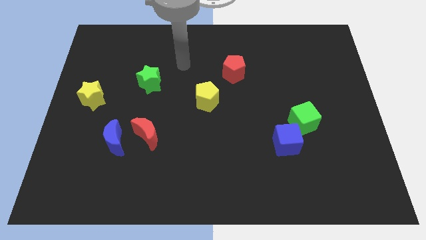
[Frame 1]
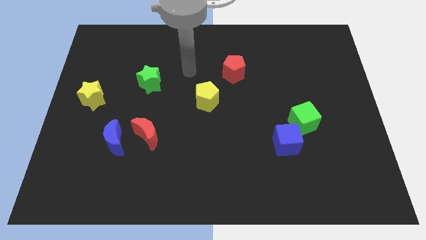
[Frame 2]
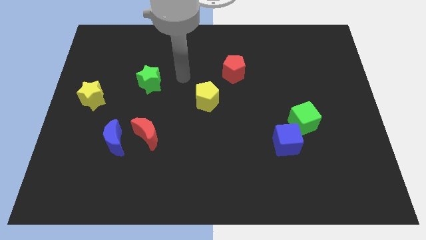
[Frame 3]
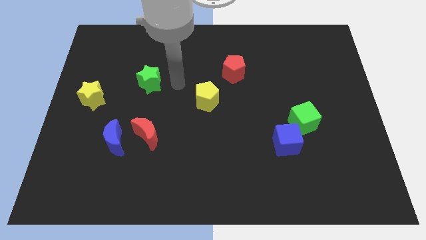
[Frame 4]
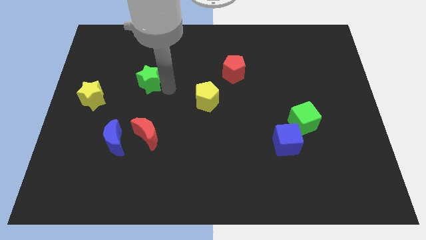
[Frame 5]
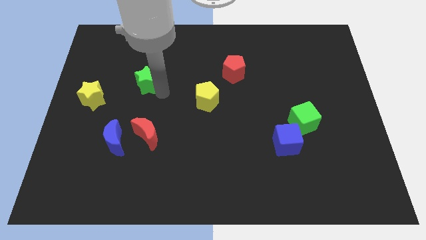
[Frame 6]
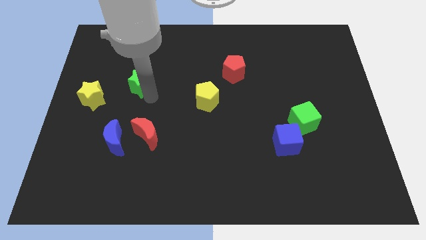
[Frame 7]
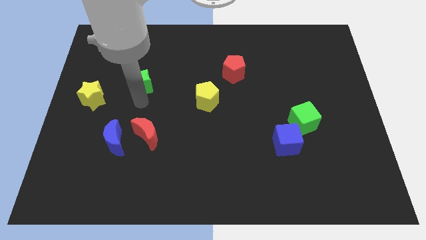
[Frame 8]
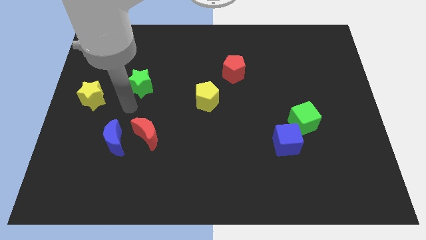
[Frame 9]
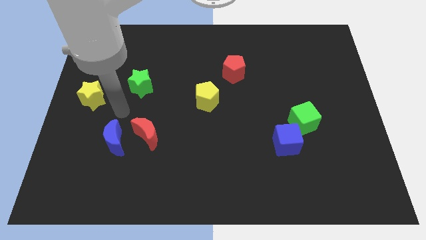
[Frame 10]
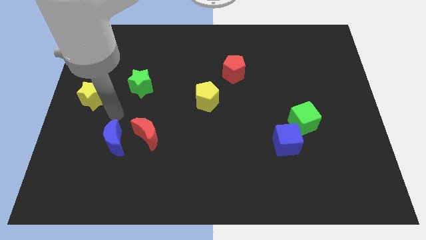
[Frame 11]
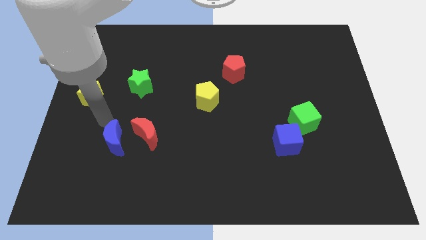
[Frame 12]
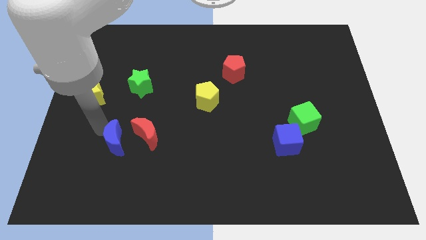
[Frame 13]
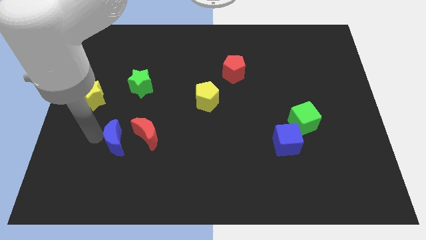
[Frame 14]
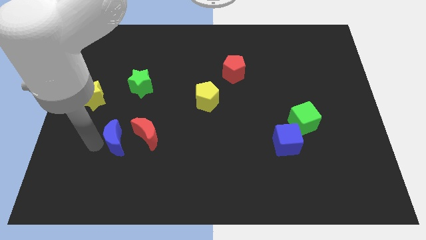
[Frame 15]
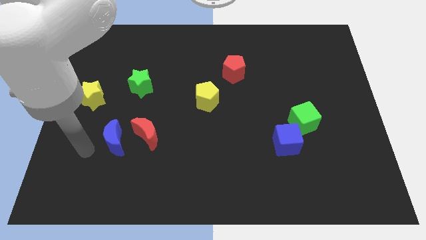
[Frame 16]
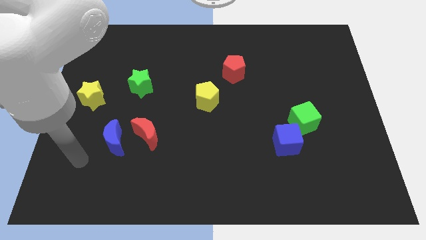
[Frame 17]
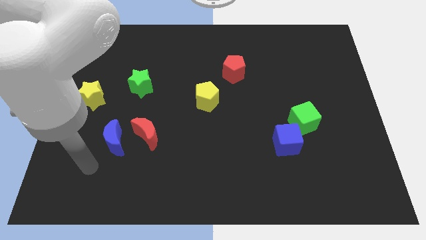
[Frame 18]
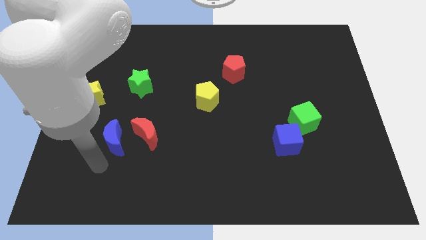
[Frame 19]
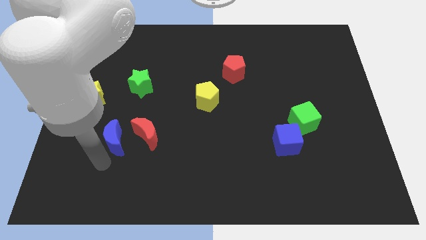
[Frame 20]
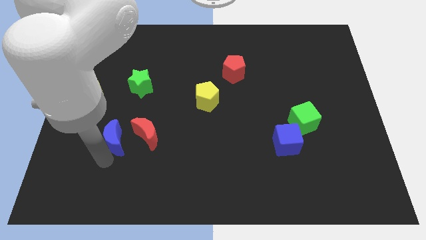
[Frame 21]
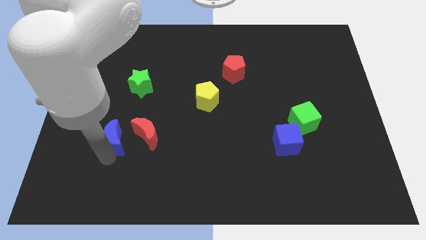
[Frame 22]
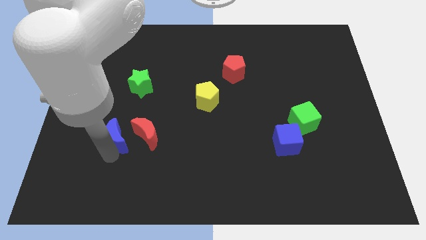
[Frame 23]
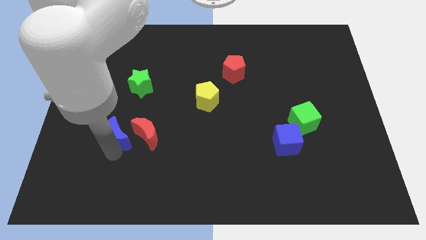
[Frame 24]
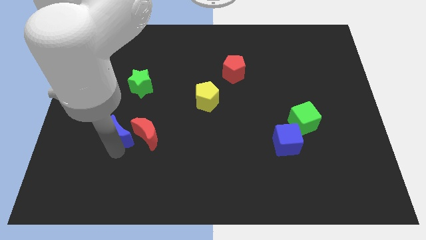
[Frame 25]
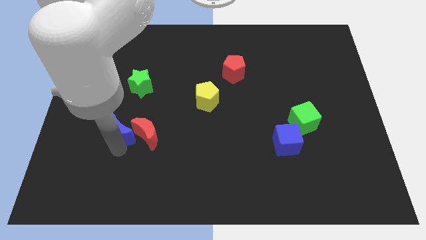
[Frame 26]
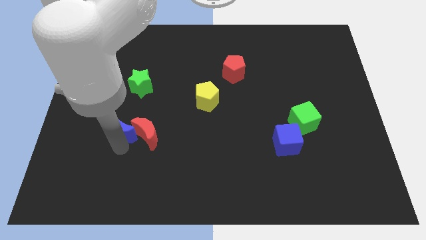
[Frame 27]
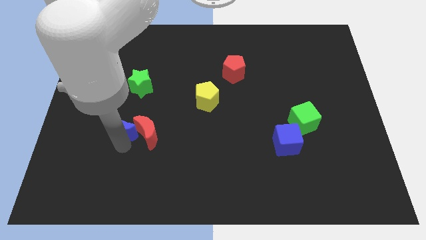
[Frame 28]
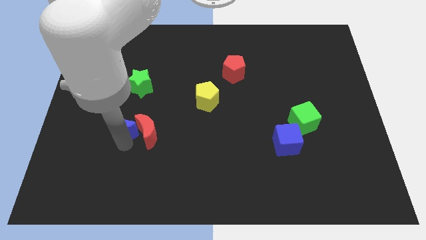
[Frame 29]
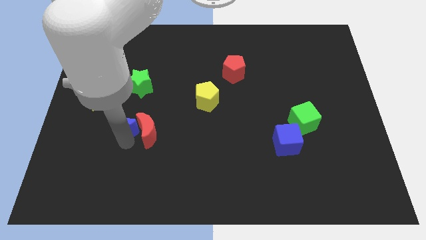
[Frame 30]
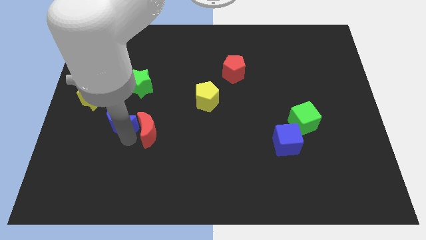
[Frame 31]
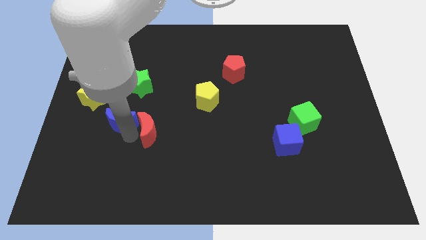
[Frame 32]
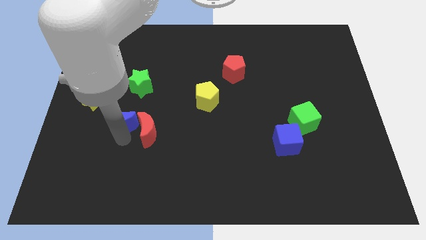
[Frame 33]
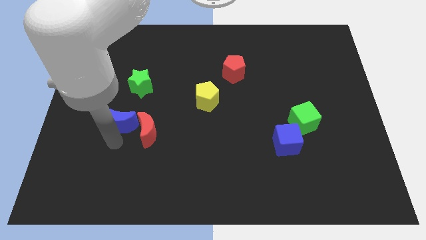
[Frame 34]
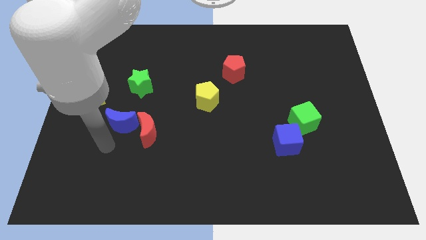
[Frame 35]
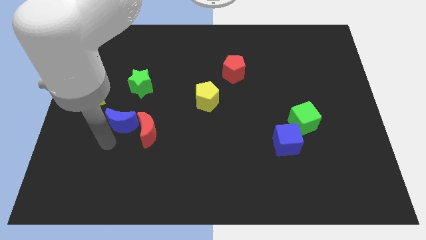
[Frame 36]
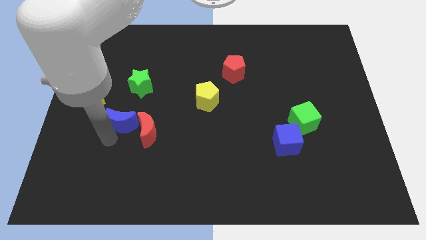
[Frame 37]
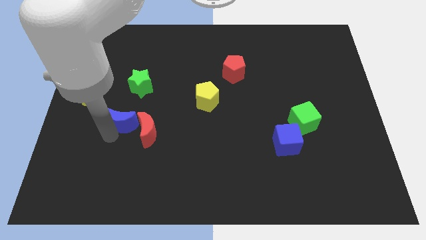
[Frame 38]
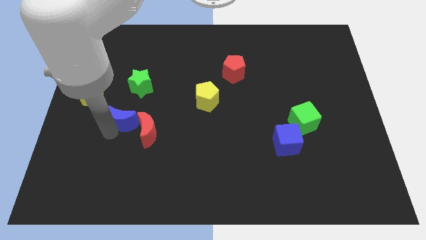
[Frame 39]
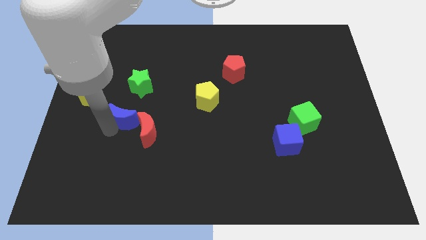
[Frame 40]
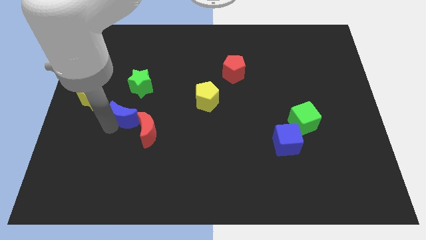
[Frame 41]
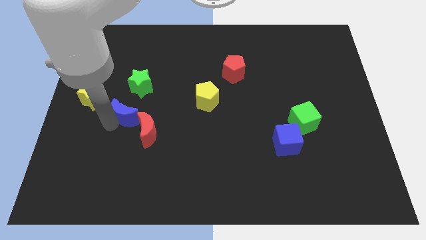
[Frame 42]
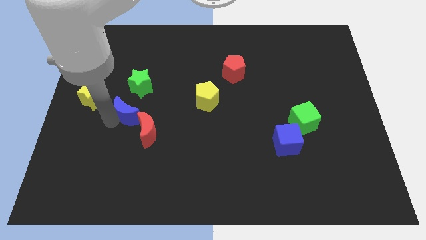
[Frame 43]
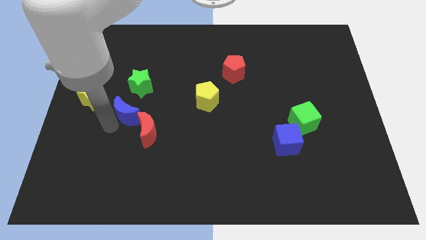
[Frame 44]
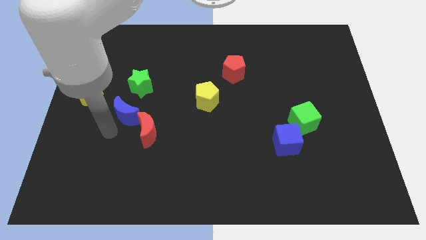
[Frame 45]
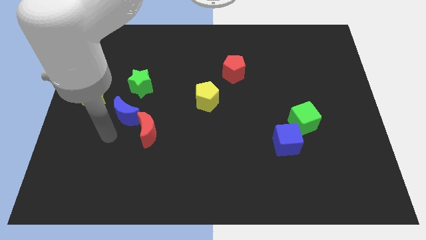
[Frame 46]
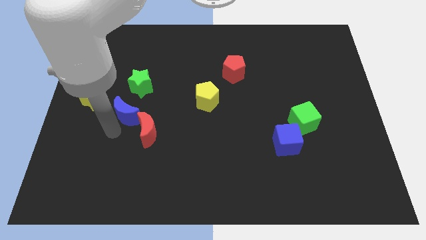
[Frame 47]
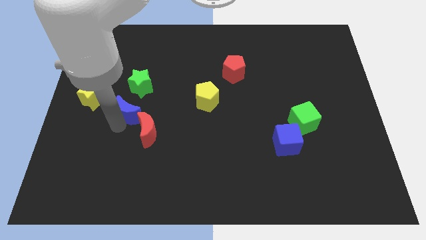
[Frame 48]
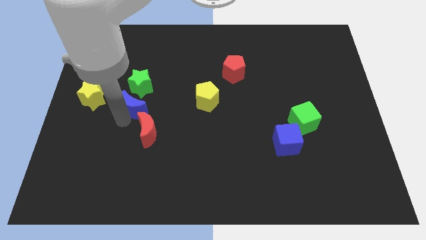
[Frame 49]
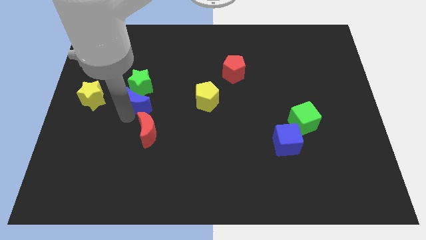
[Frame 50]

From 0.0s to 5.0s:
slide the blue moon towards the green star

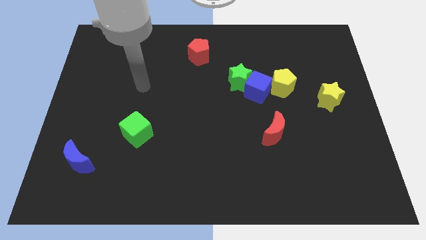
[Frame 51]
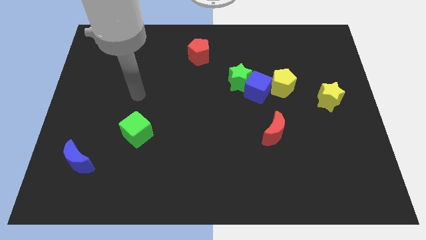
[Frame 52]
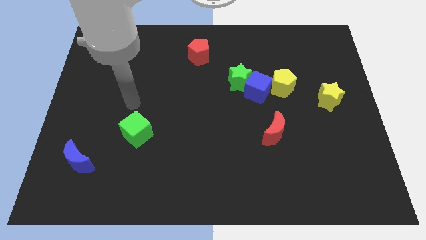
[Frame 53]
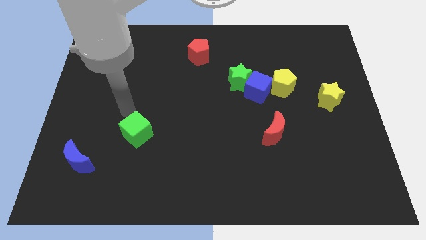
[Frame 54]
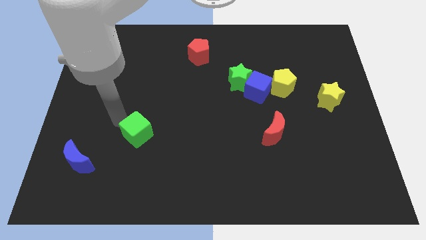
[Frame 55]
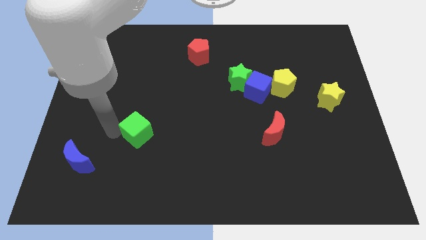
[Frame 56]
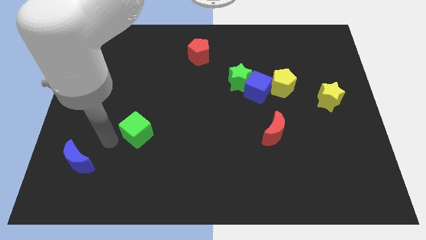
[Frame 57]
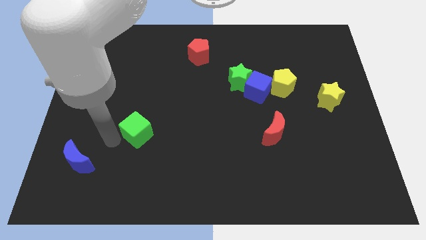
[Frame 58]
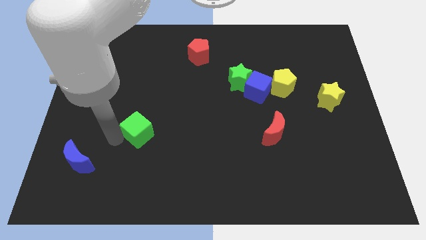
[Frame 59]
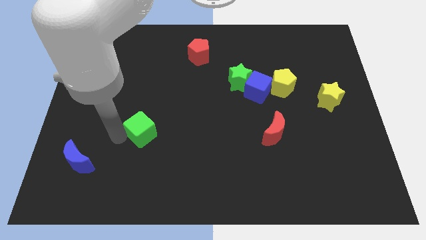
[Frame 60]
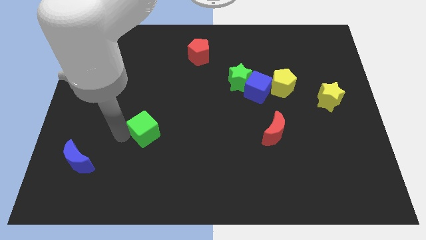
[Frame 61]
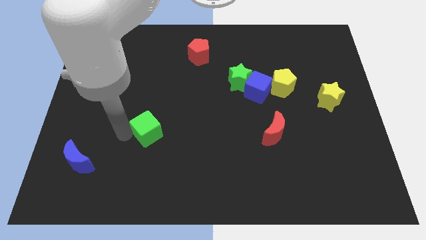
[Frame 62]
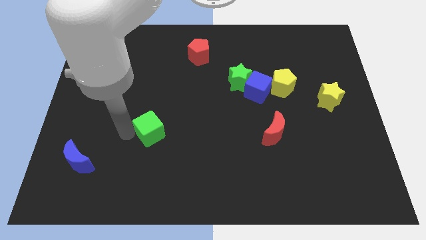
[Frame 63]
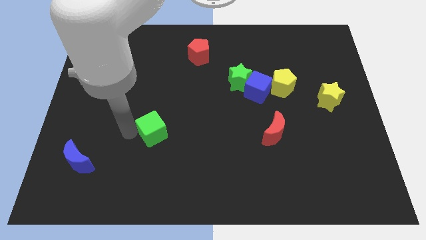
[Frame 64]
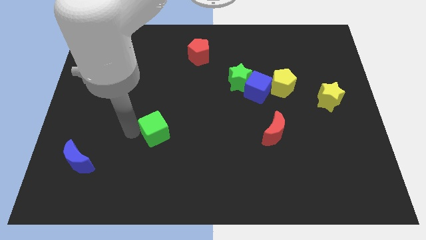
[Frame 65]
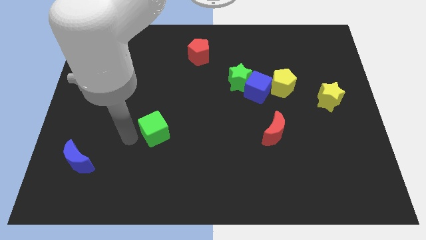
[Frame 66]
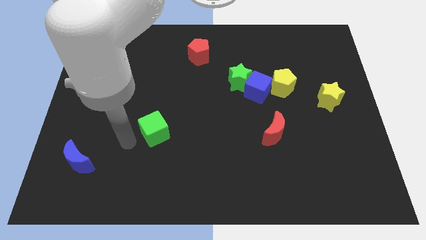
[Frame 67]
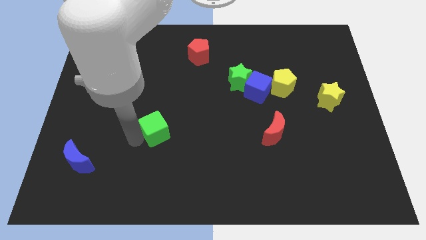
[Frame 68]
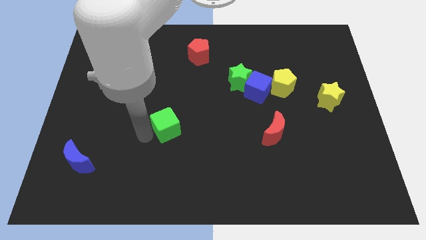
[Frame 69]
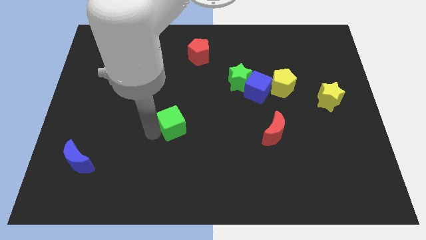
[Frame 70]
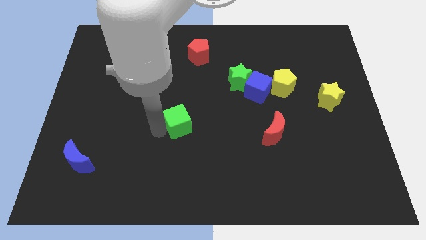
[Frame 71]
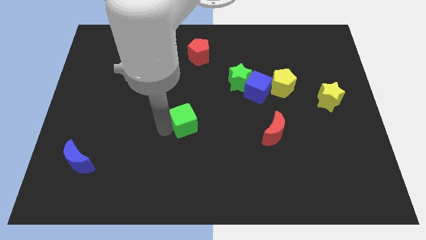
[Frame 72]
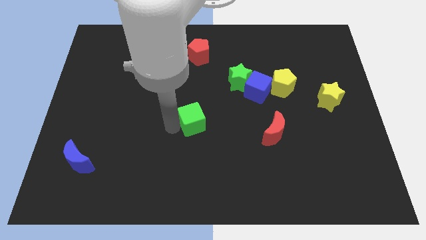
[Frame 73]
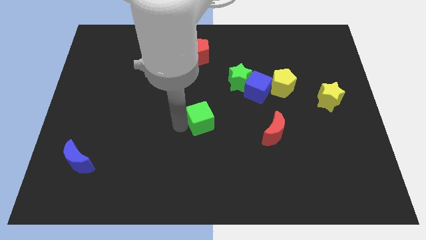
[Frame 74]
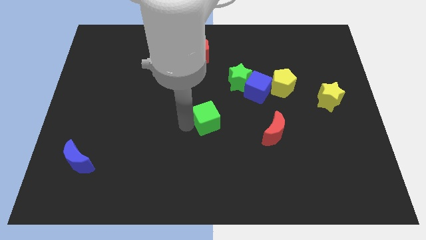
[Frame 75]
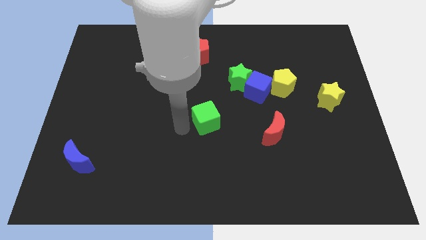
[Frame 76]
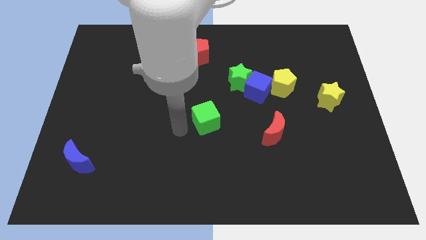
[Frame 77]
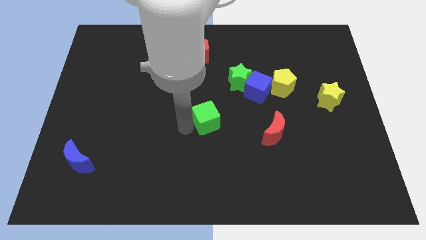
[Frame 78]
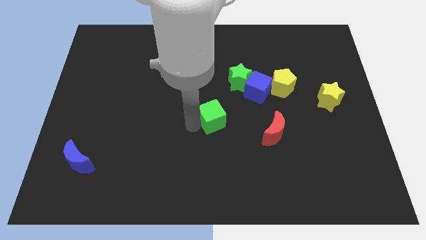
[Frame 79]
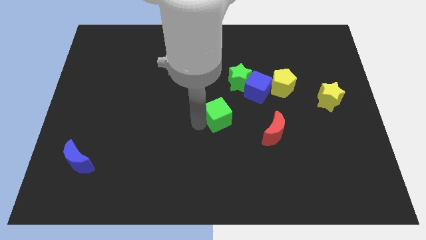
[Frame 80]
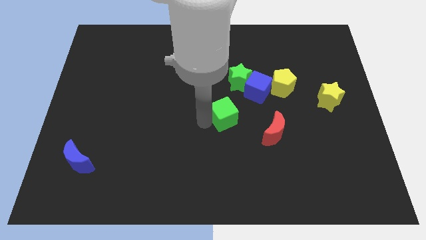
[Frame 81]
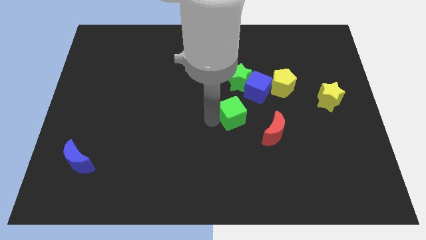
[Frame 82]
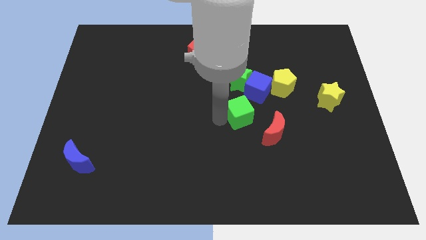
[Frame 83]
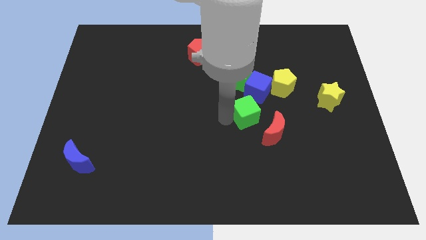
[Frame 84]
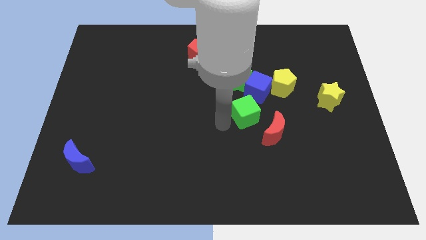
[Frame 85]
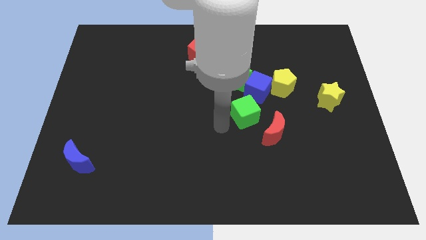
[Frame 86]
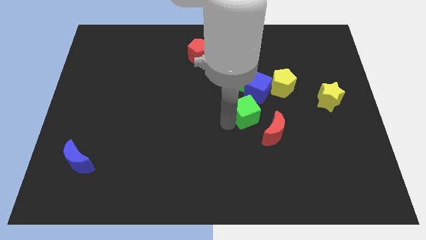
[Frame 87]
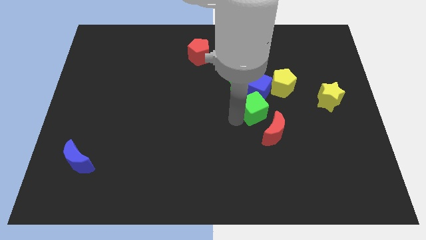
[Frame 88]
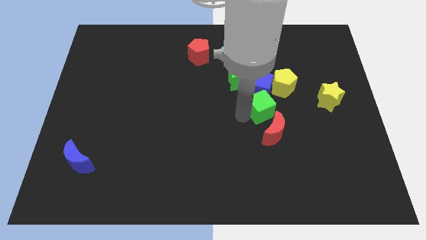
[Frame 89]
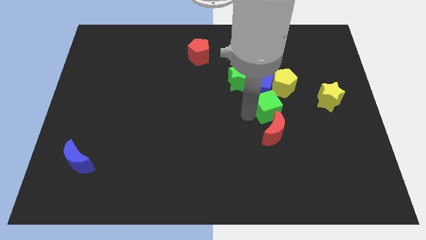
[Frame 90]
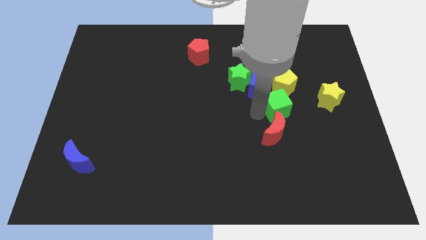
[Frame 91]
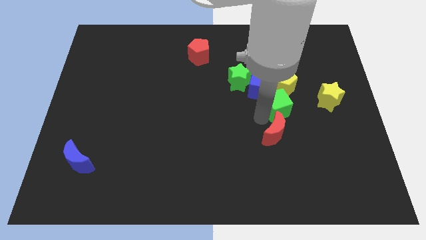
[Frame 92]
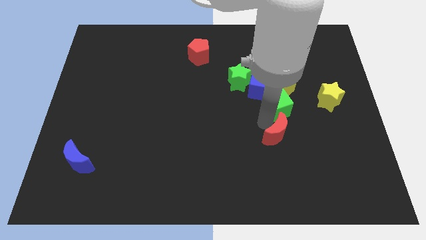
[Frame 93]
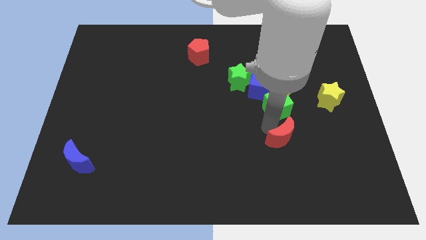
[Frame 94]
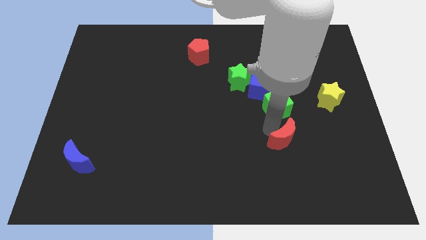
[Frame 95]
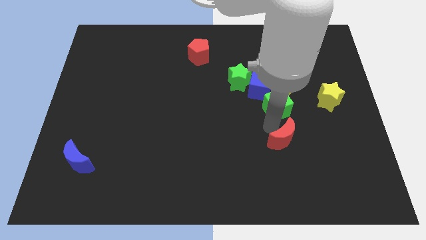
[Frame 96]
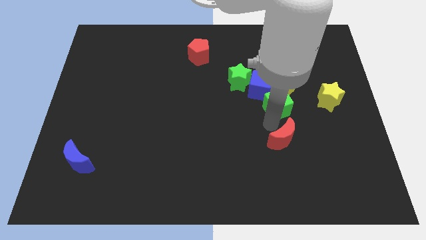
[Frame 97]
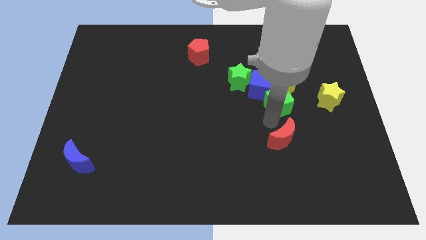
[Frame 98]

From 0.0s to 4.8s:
slide the green cube next to the yellow pentagon
